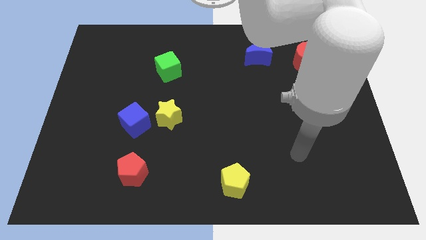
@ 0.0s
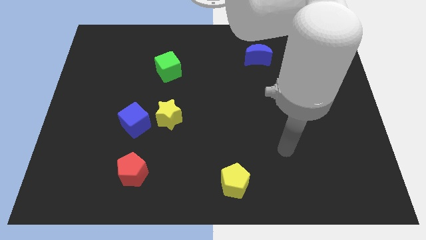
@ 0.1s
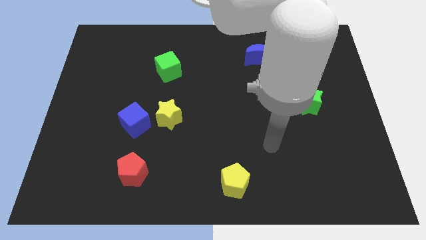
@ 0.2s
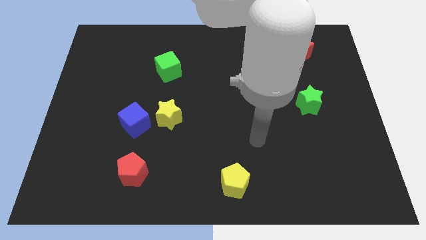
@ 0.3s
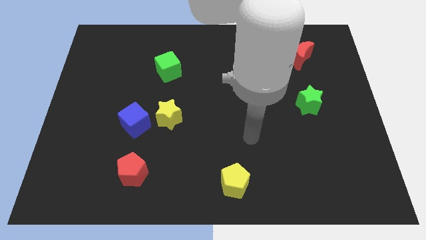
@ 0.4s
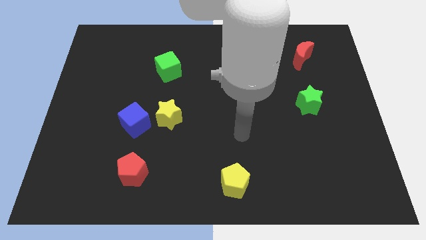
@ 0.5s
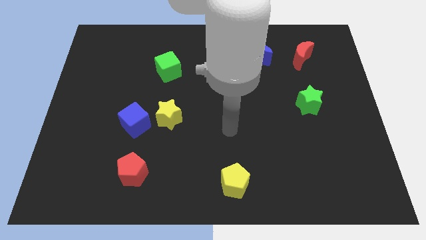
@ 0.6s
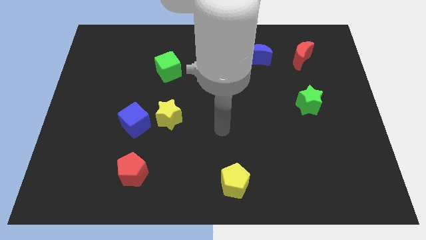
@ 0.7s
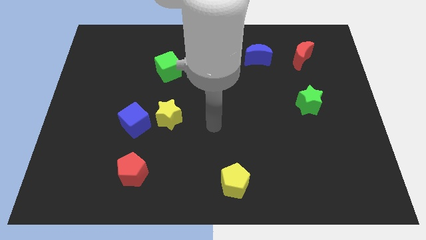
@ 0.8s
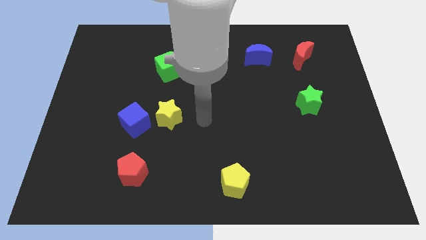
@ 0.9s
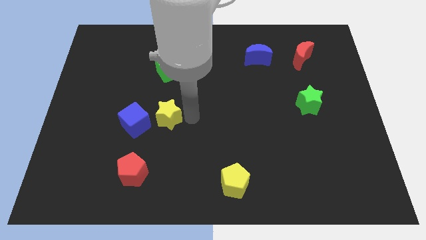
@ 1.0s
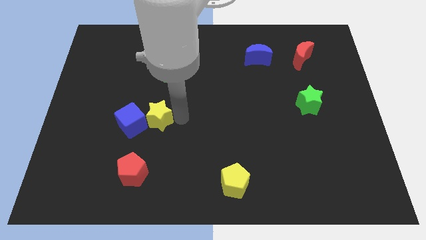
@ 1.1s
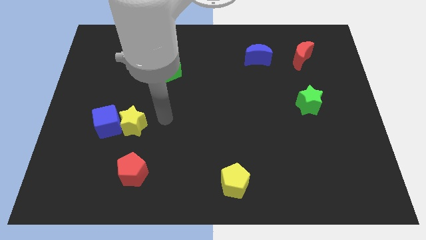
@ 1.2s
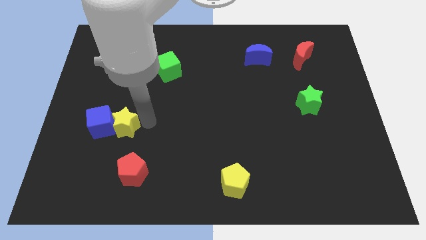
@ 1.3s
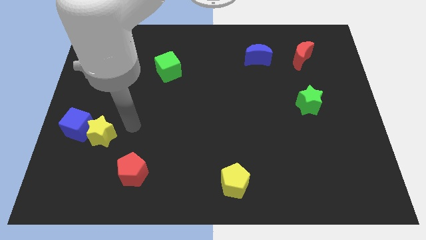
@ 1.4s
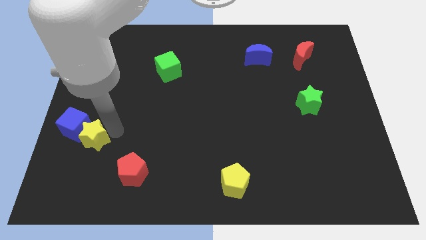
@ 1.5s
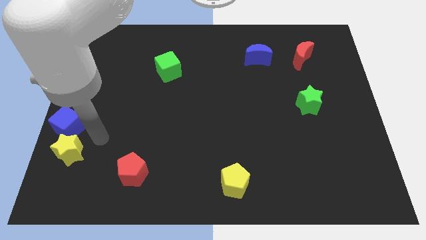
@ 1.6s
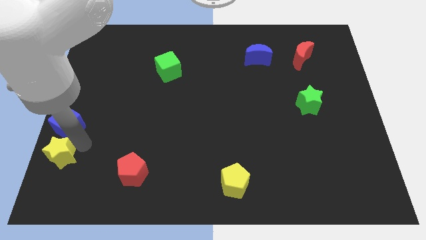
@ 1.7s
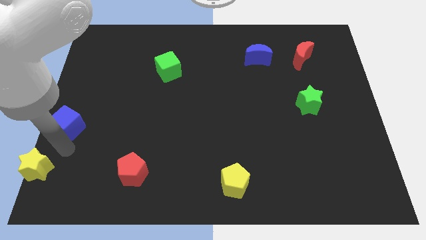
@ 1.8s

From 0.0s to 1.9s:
move the blue cube away from the yellow star

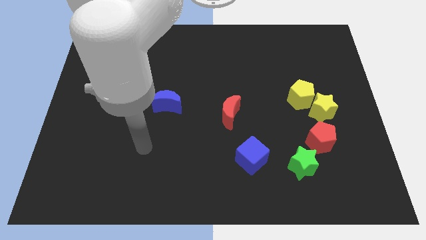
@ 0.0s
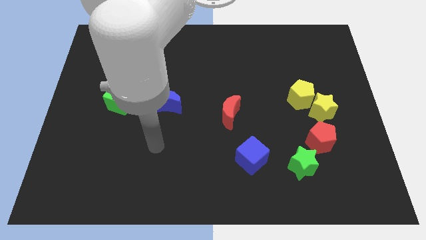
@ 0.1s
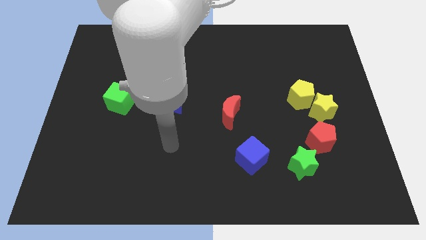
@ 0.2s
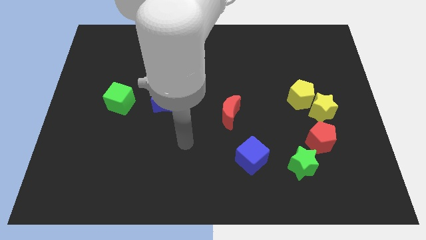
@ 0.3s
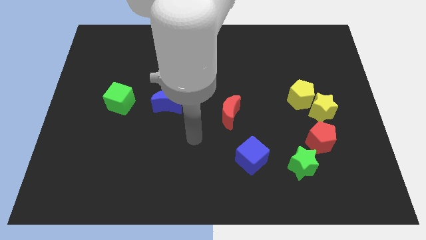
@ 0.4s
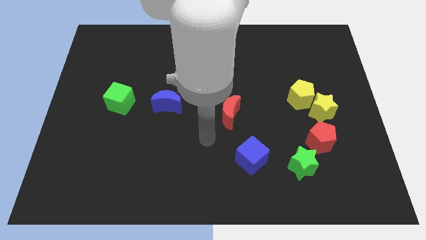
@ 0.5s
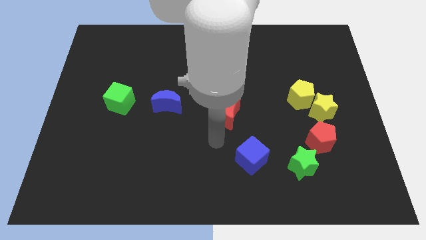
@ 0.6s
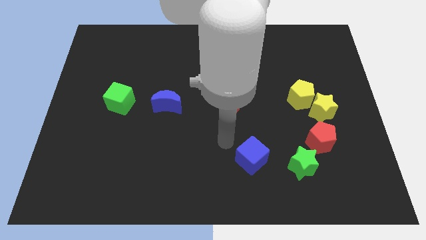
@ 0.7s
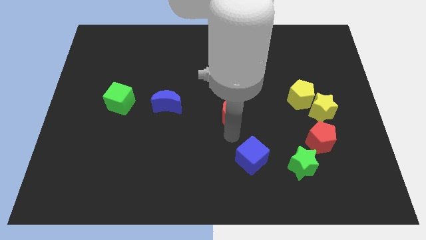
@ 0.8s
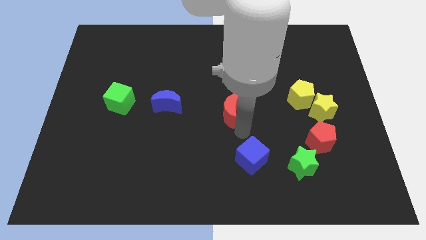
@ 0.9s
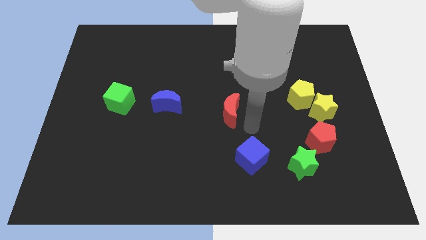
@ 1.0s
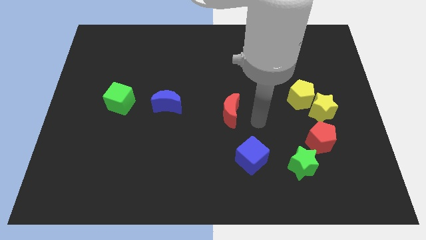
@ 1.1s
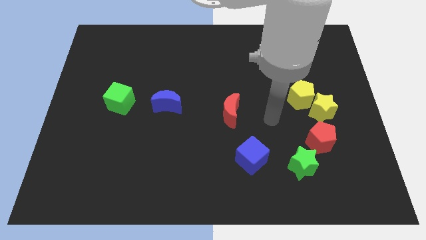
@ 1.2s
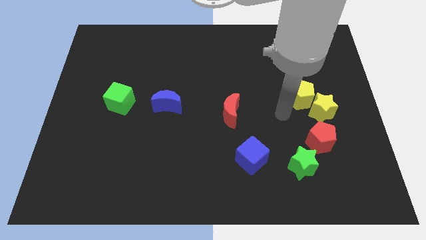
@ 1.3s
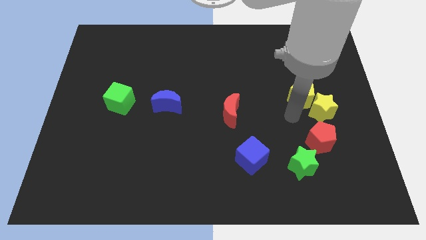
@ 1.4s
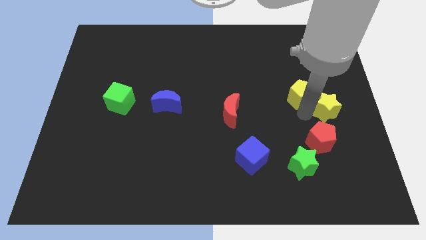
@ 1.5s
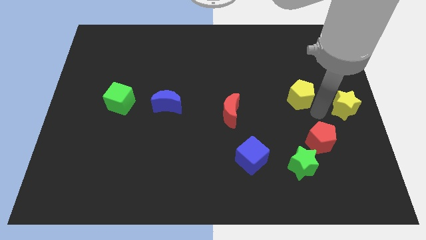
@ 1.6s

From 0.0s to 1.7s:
separate the yellow pentagon from the yellow star

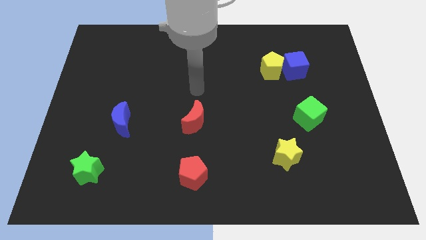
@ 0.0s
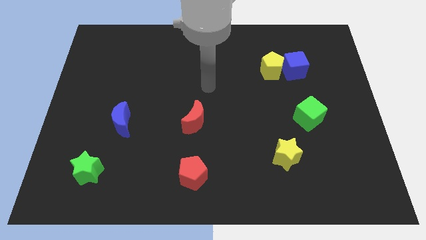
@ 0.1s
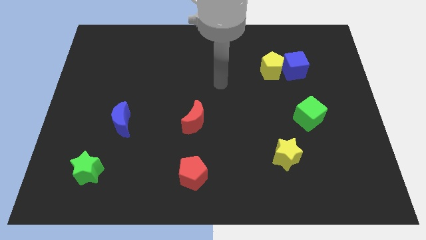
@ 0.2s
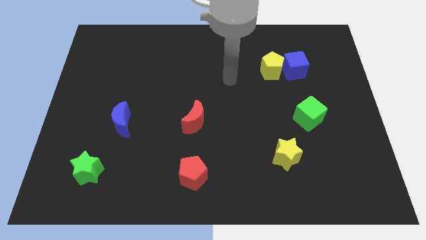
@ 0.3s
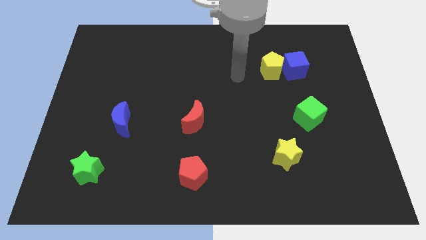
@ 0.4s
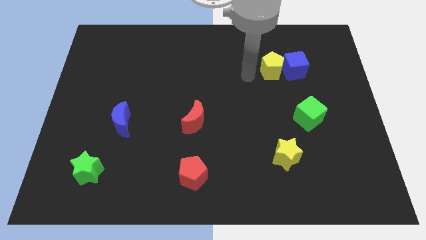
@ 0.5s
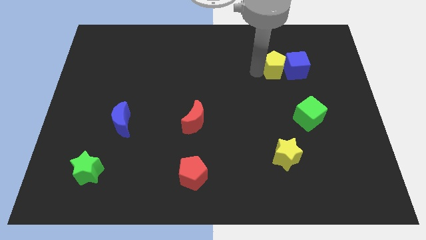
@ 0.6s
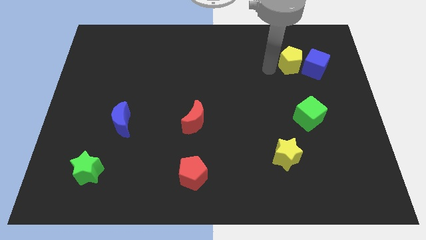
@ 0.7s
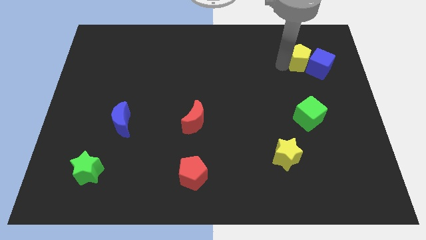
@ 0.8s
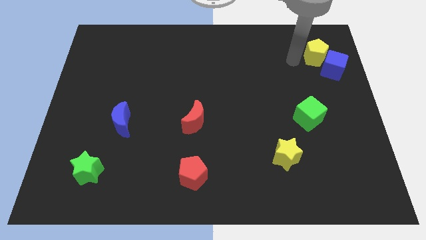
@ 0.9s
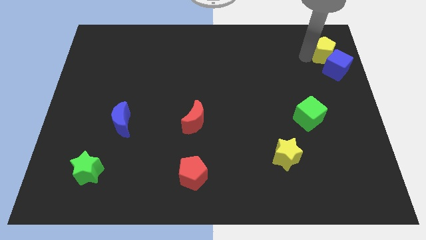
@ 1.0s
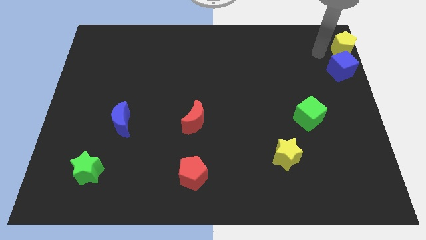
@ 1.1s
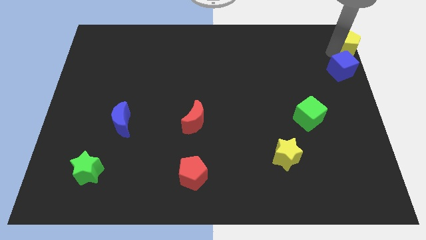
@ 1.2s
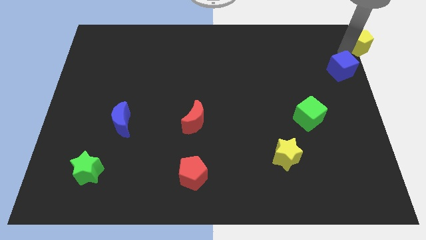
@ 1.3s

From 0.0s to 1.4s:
move the blue cube away from the yellow pentagon

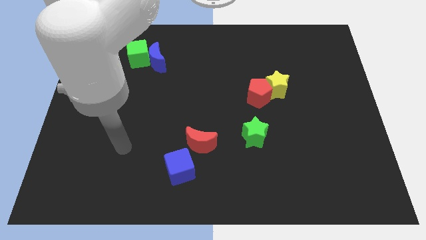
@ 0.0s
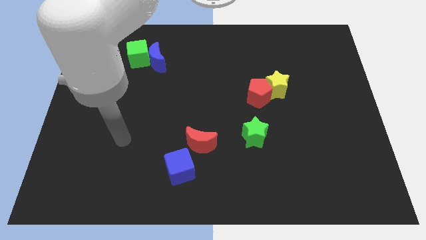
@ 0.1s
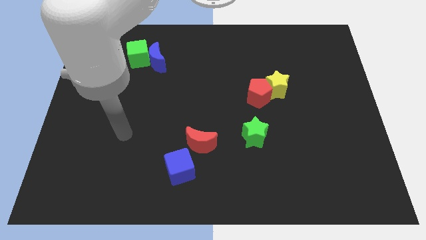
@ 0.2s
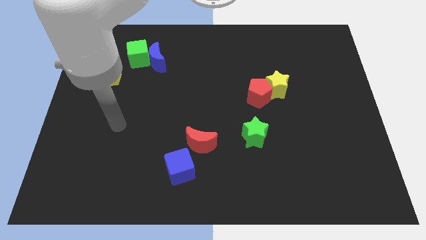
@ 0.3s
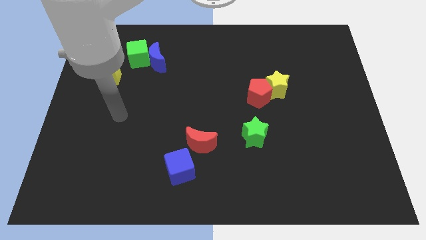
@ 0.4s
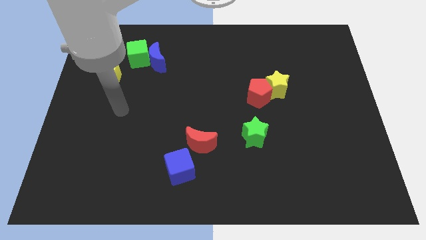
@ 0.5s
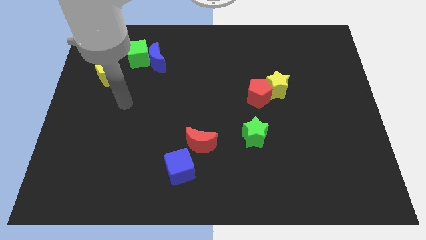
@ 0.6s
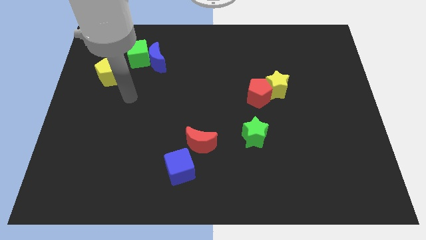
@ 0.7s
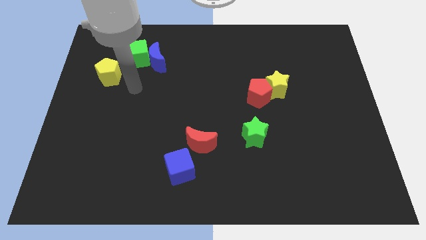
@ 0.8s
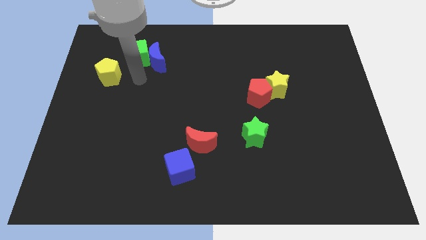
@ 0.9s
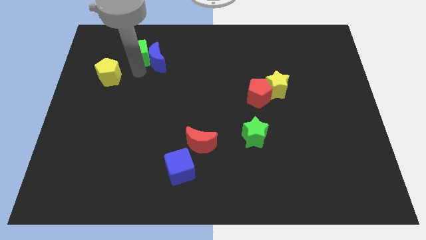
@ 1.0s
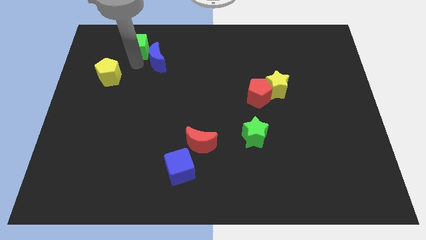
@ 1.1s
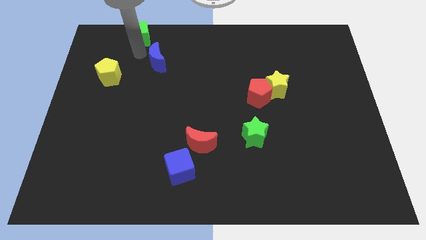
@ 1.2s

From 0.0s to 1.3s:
separate the blue moon from the green cube

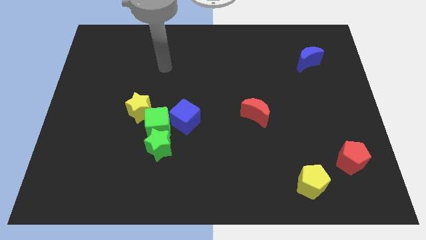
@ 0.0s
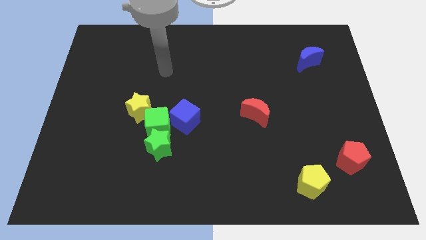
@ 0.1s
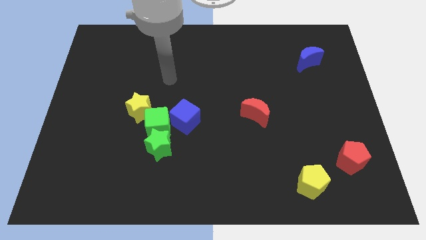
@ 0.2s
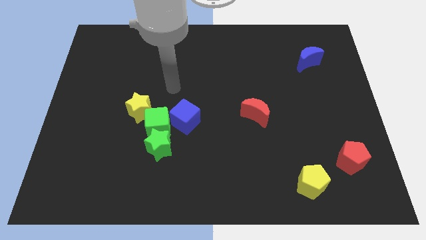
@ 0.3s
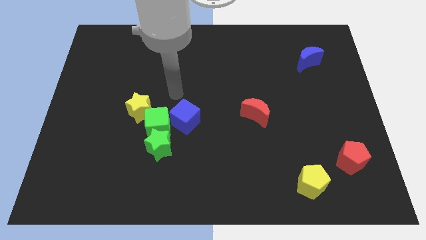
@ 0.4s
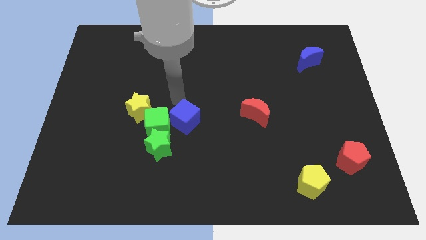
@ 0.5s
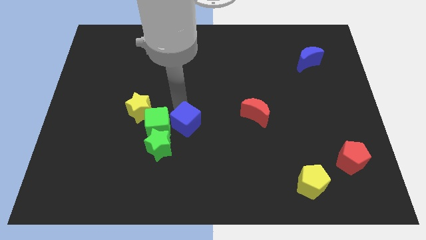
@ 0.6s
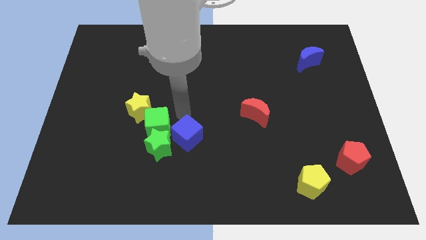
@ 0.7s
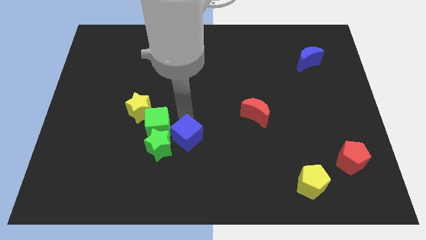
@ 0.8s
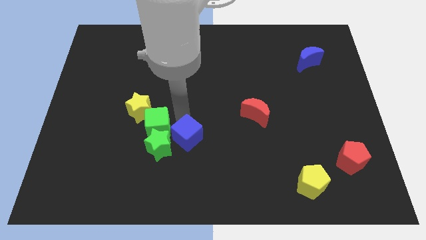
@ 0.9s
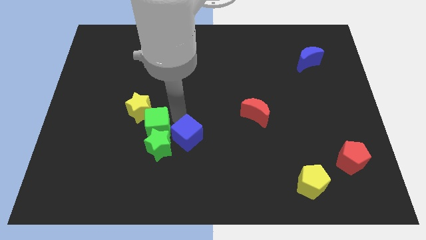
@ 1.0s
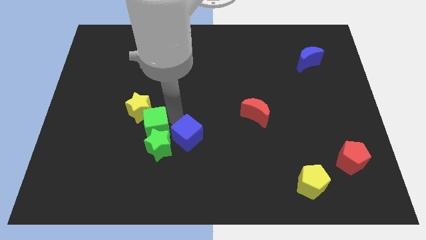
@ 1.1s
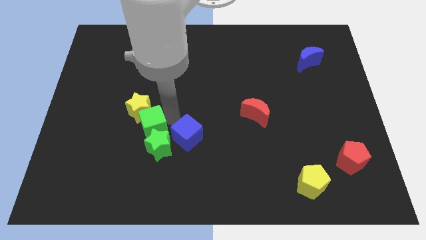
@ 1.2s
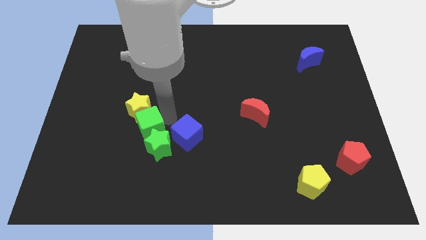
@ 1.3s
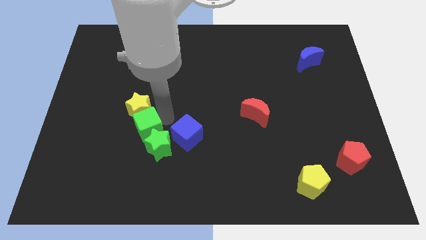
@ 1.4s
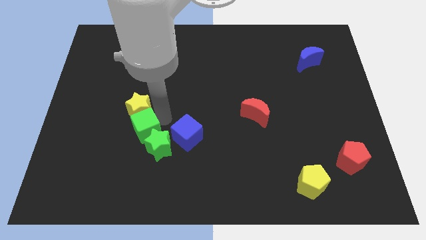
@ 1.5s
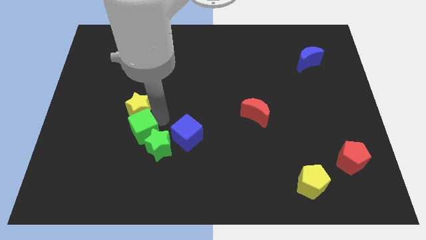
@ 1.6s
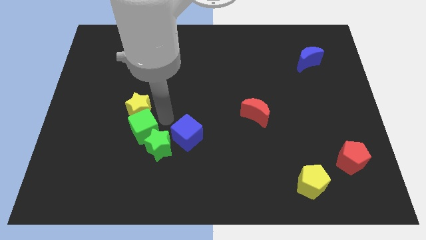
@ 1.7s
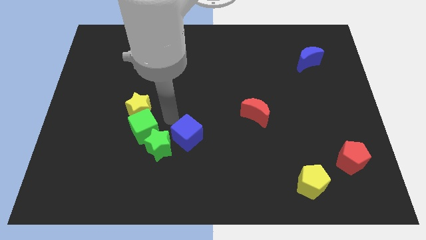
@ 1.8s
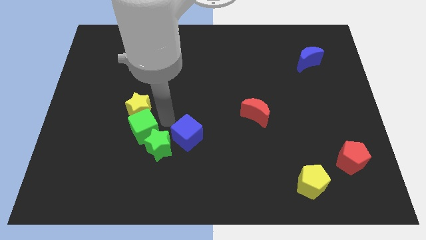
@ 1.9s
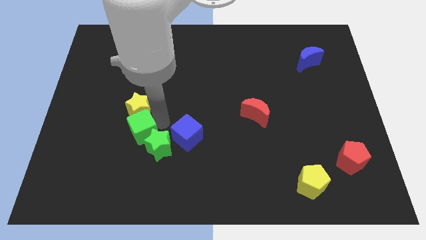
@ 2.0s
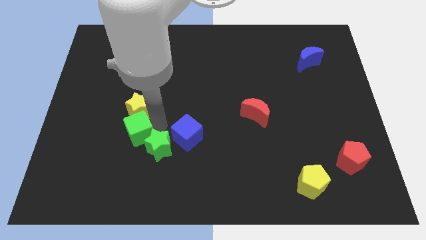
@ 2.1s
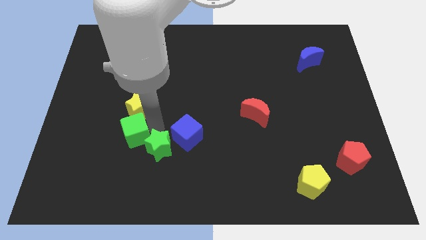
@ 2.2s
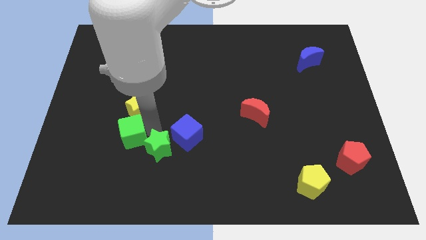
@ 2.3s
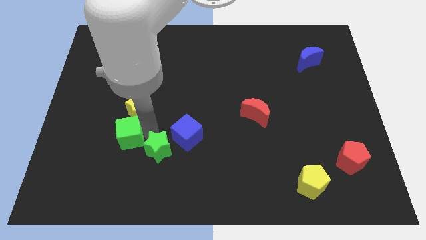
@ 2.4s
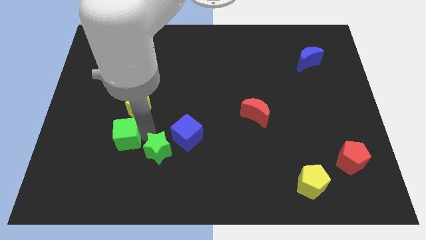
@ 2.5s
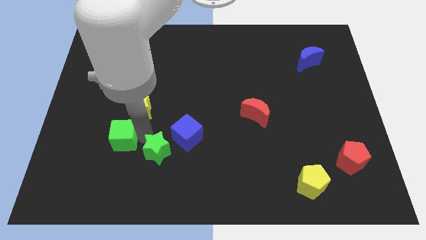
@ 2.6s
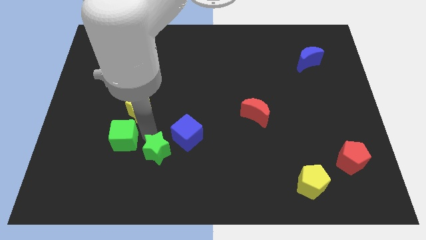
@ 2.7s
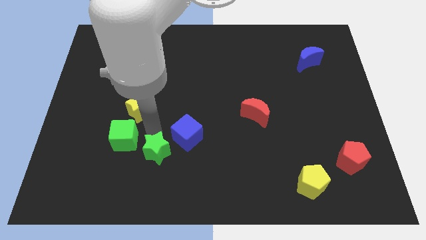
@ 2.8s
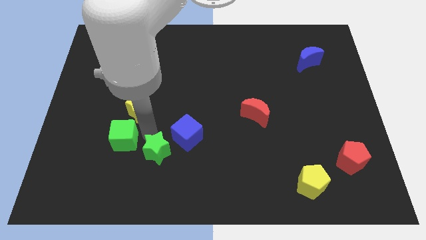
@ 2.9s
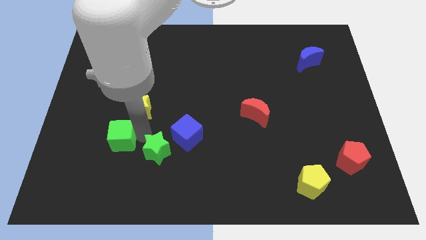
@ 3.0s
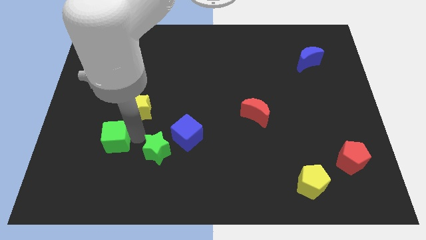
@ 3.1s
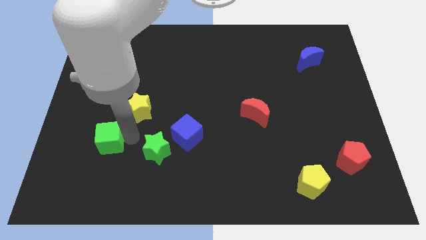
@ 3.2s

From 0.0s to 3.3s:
pull the green cube apart from the group of blocks
